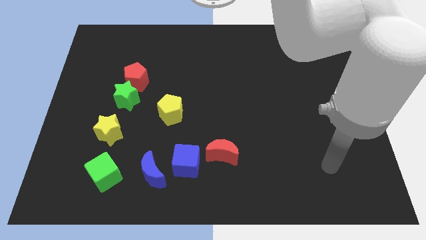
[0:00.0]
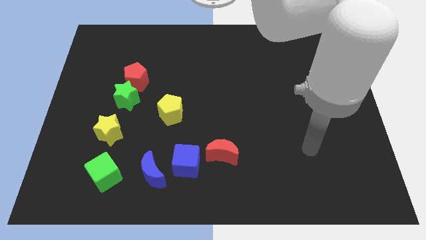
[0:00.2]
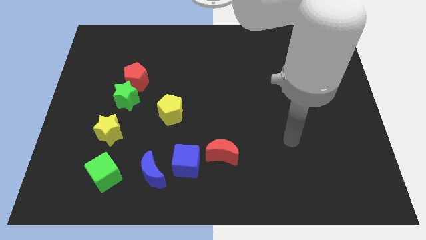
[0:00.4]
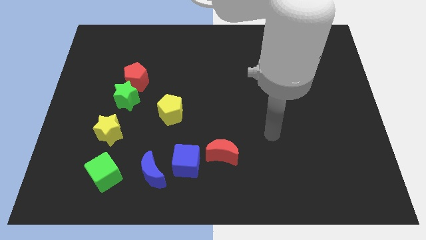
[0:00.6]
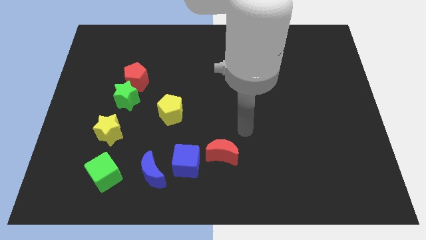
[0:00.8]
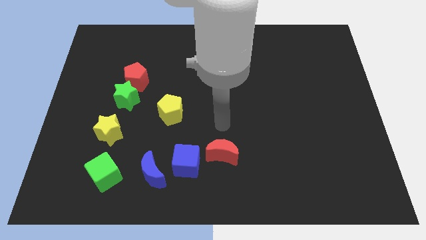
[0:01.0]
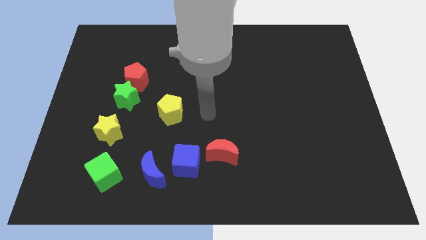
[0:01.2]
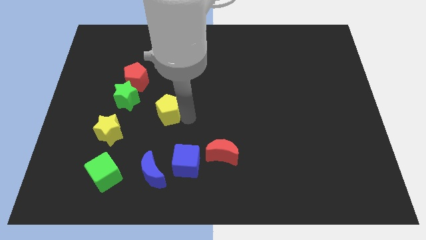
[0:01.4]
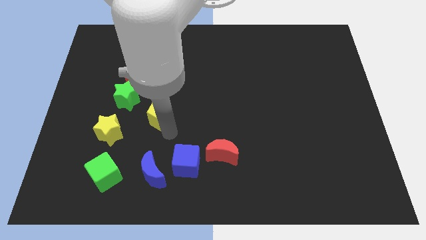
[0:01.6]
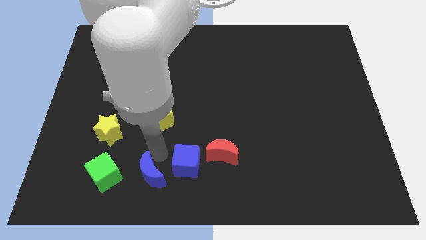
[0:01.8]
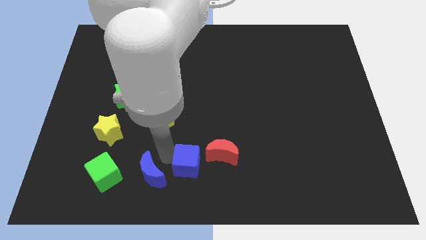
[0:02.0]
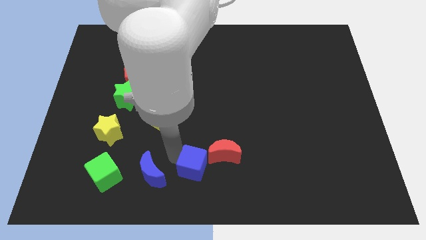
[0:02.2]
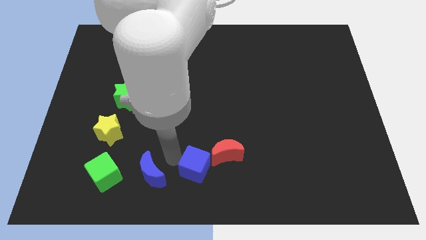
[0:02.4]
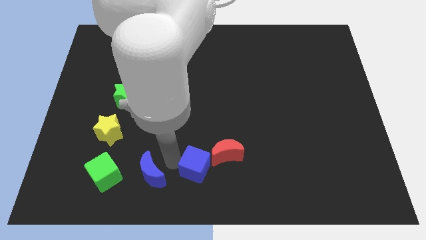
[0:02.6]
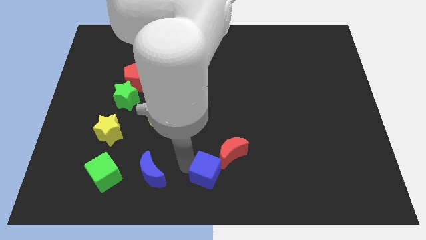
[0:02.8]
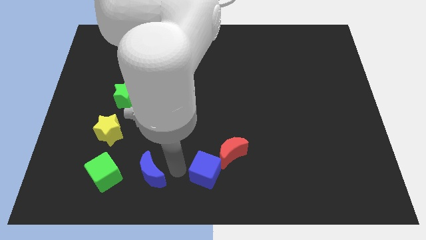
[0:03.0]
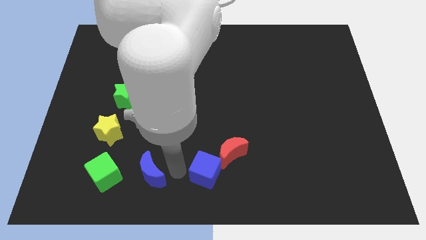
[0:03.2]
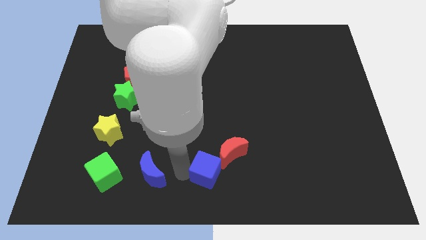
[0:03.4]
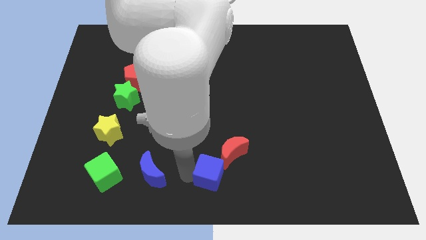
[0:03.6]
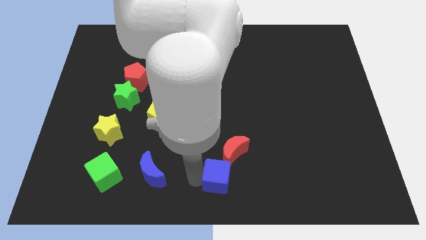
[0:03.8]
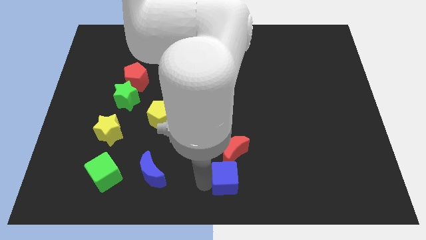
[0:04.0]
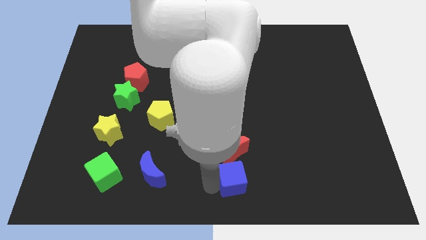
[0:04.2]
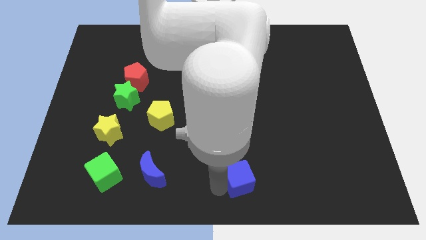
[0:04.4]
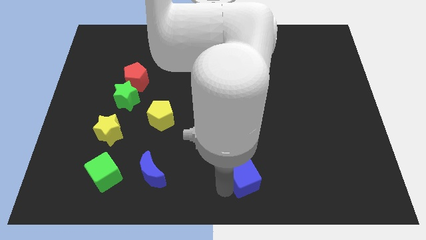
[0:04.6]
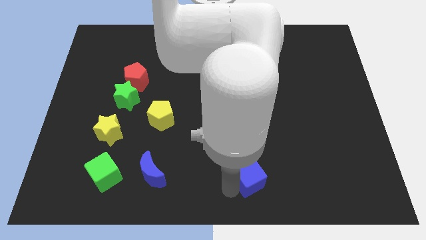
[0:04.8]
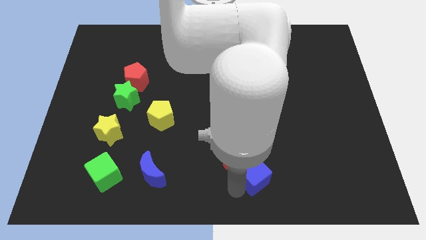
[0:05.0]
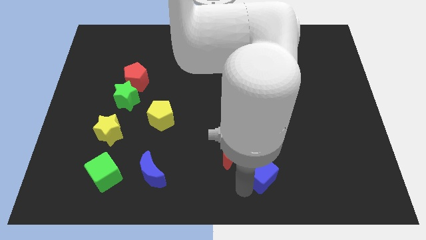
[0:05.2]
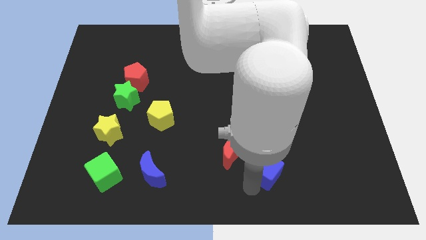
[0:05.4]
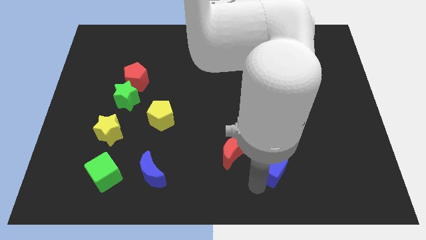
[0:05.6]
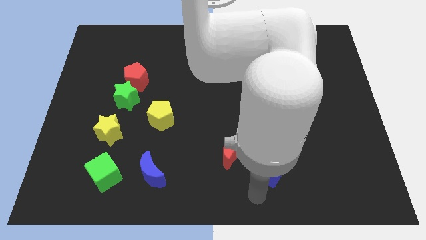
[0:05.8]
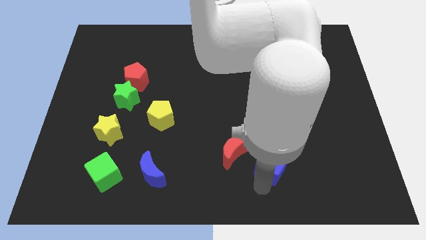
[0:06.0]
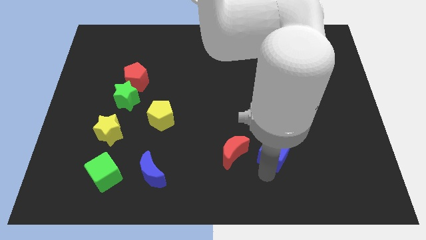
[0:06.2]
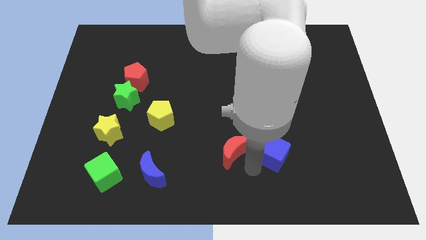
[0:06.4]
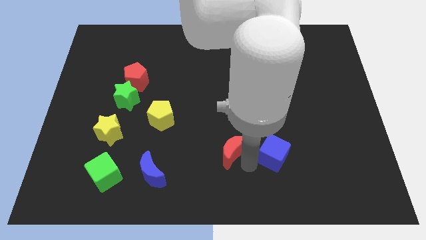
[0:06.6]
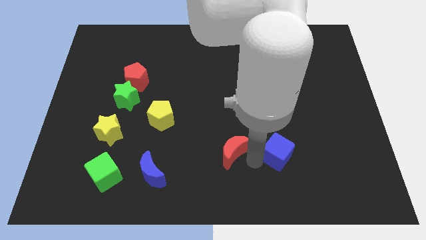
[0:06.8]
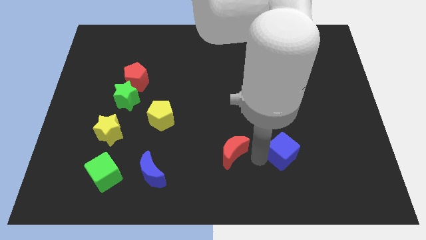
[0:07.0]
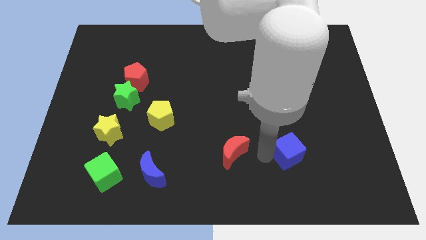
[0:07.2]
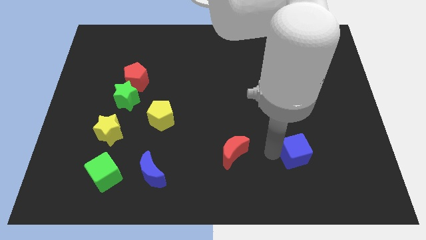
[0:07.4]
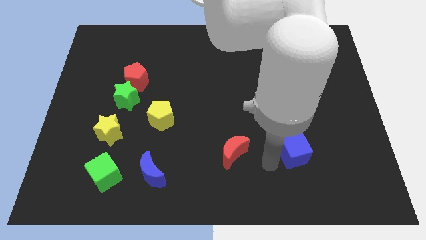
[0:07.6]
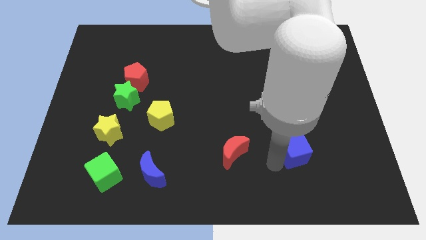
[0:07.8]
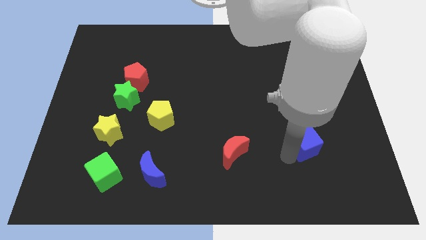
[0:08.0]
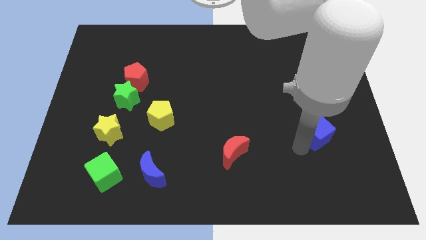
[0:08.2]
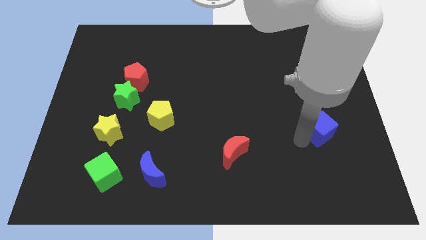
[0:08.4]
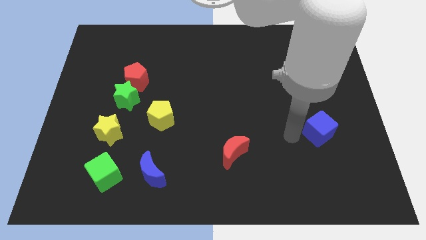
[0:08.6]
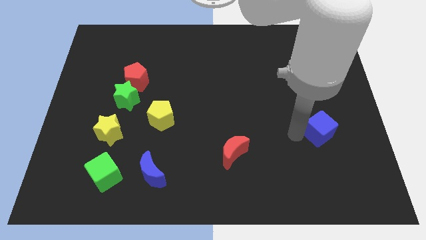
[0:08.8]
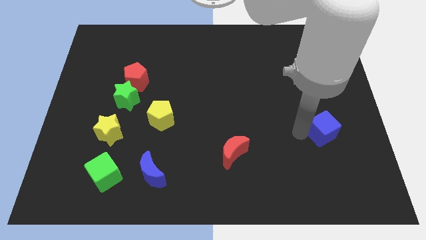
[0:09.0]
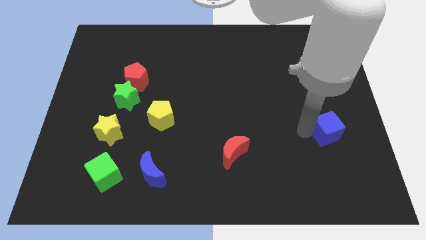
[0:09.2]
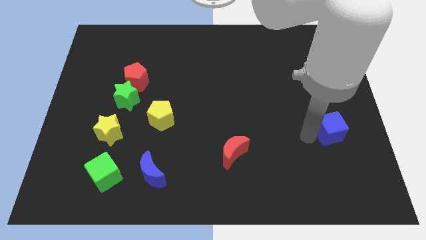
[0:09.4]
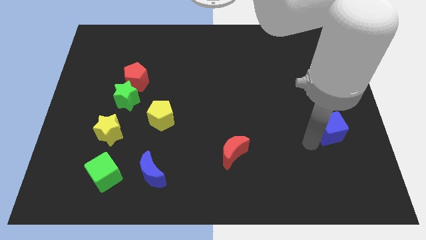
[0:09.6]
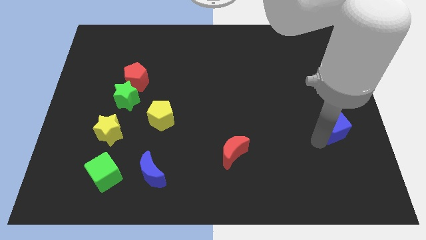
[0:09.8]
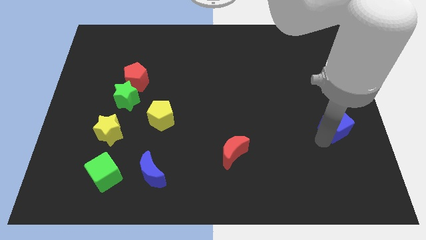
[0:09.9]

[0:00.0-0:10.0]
put the blue cube to the right side of the board
